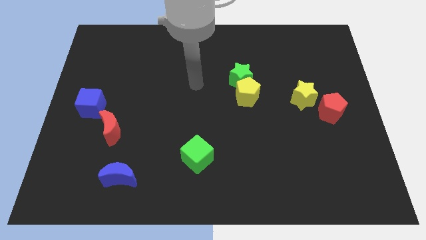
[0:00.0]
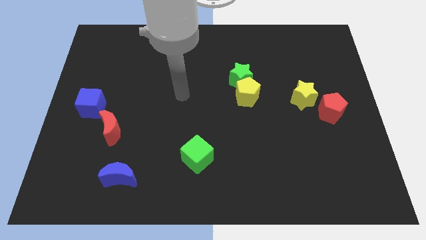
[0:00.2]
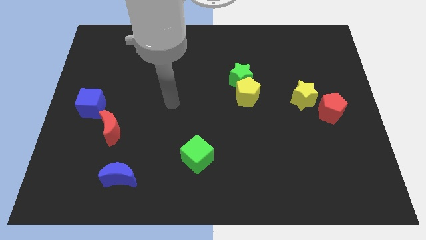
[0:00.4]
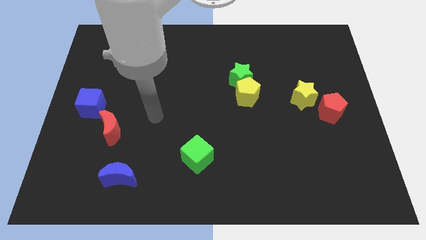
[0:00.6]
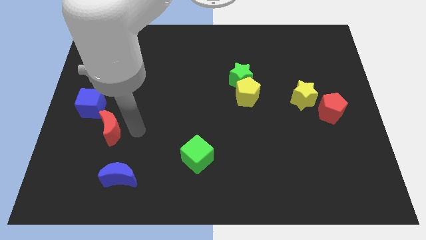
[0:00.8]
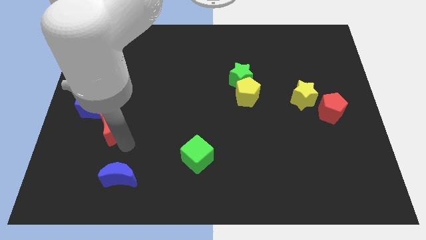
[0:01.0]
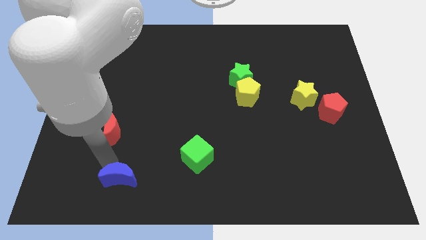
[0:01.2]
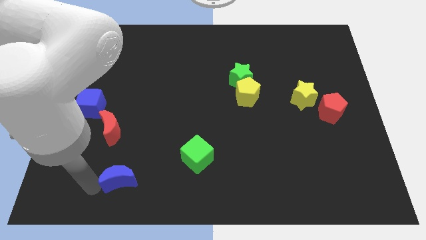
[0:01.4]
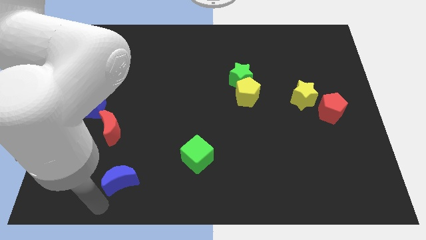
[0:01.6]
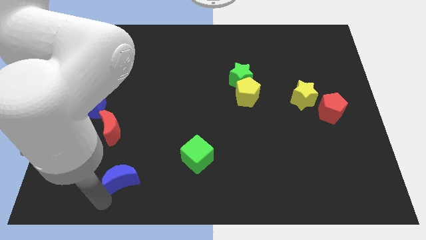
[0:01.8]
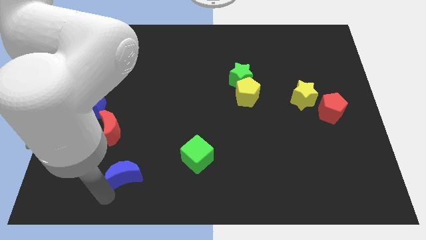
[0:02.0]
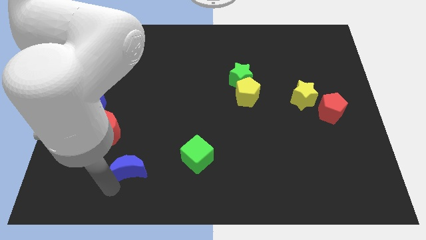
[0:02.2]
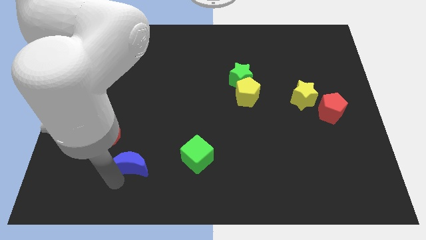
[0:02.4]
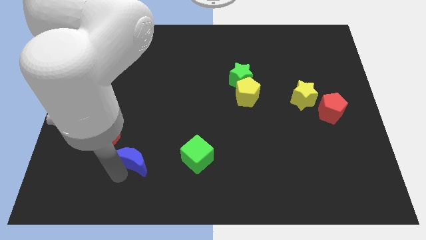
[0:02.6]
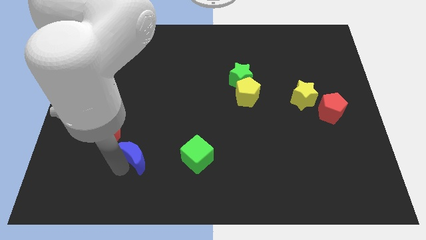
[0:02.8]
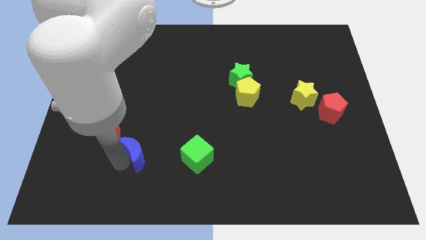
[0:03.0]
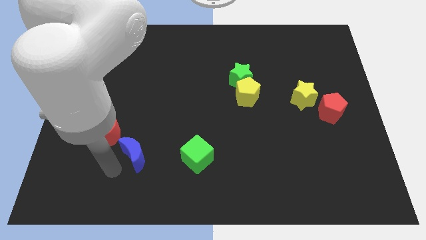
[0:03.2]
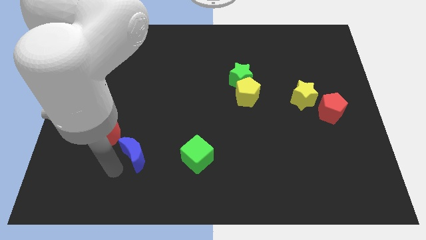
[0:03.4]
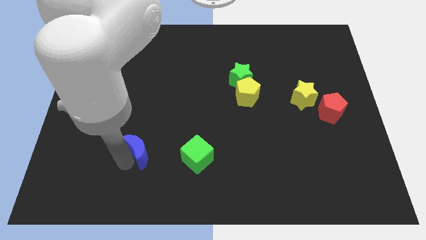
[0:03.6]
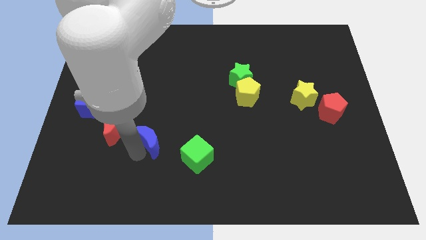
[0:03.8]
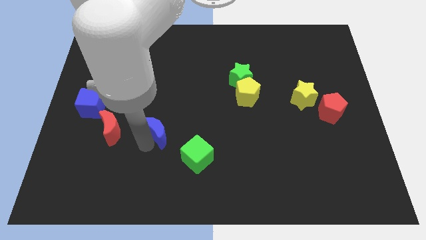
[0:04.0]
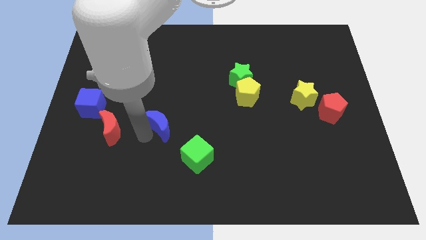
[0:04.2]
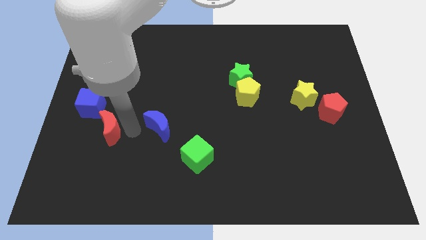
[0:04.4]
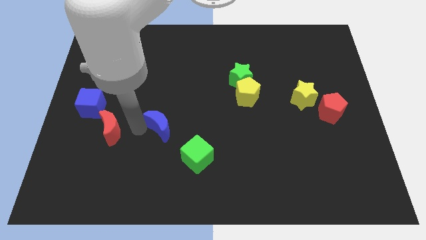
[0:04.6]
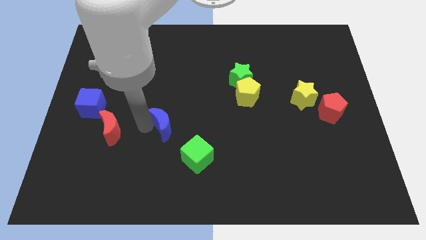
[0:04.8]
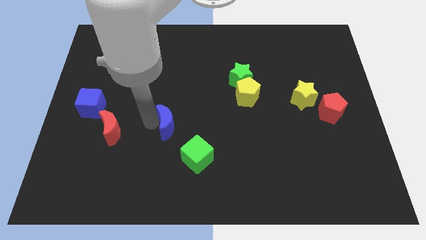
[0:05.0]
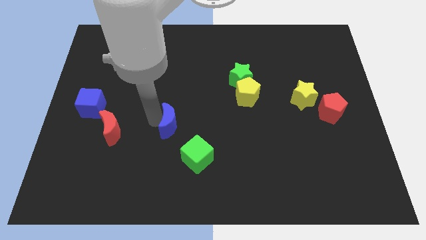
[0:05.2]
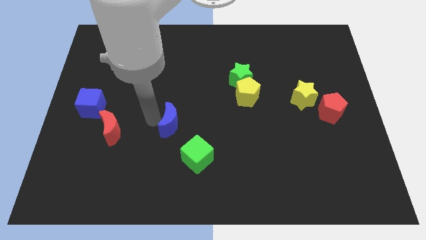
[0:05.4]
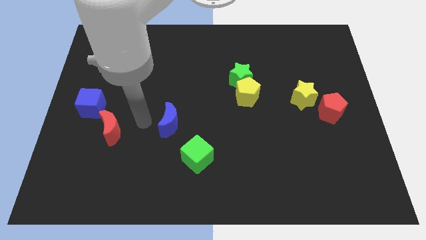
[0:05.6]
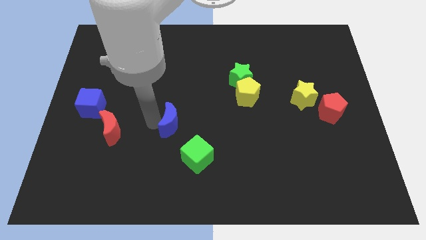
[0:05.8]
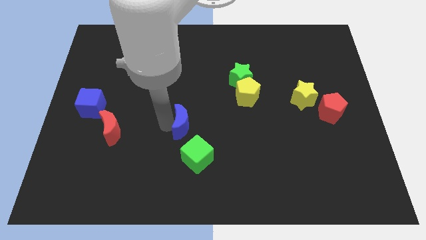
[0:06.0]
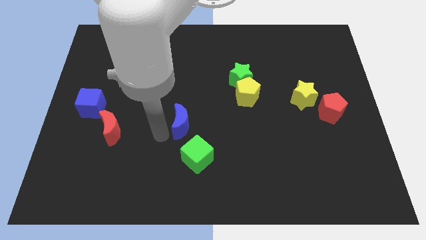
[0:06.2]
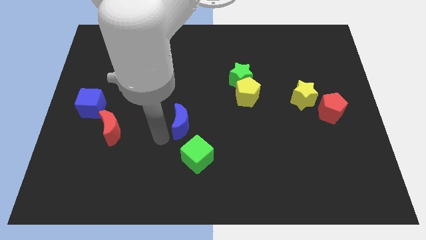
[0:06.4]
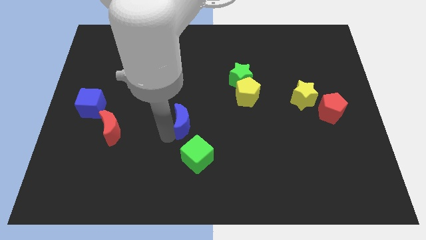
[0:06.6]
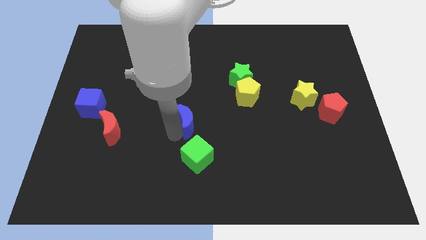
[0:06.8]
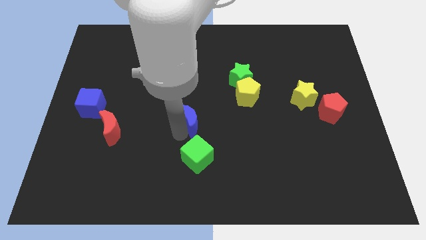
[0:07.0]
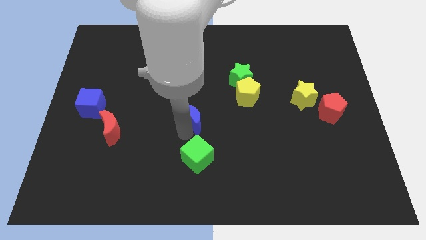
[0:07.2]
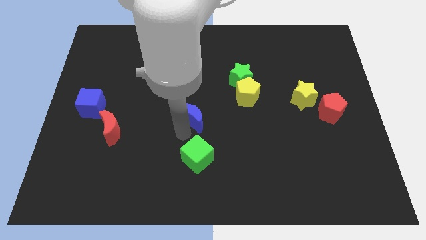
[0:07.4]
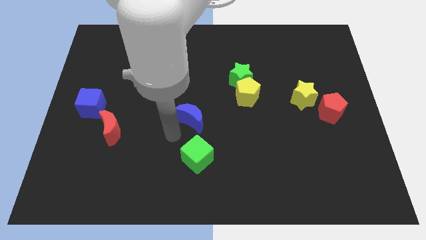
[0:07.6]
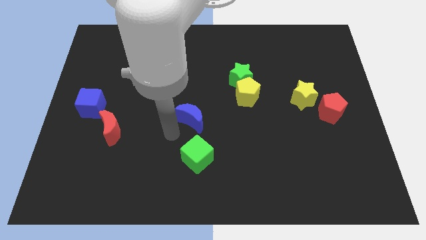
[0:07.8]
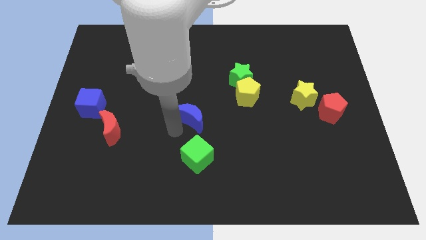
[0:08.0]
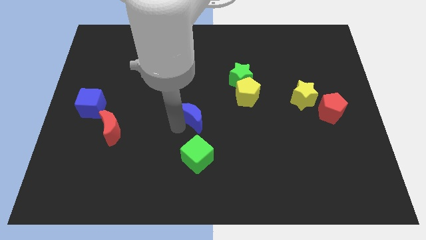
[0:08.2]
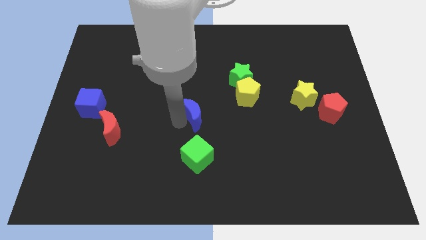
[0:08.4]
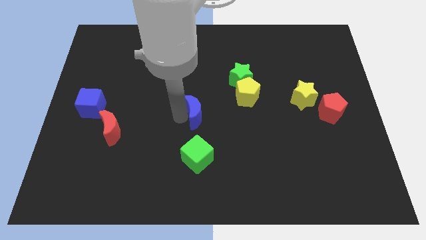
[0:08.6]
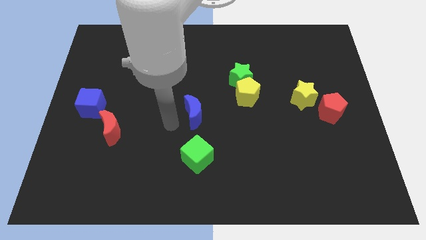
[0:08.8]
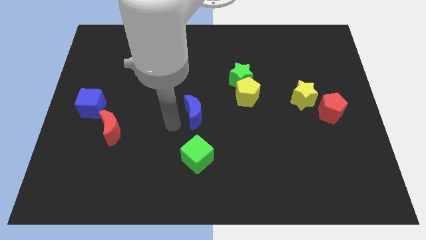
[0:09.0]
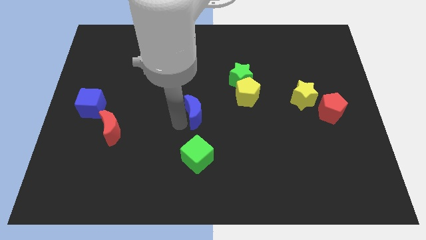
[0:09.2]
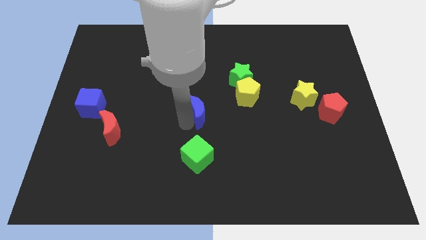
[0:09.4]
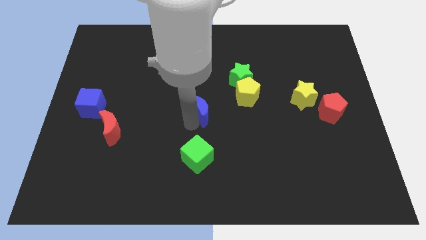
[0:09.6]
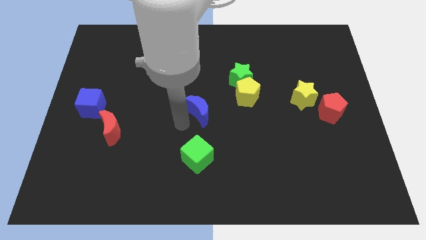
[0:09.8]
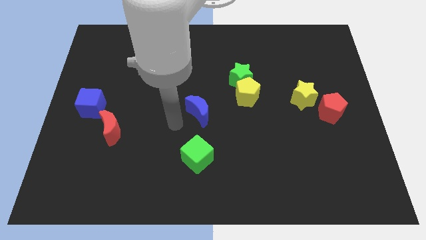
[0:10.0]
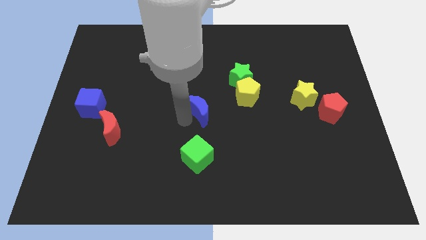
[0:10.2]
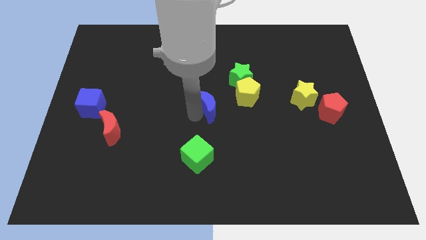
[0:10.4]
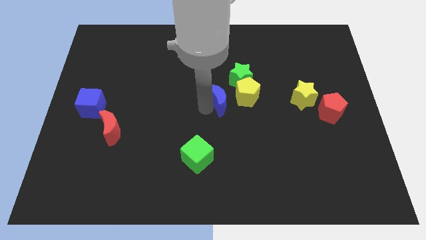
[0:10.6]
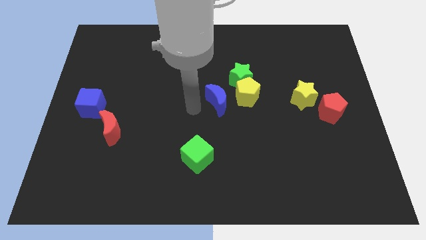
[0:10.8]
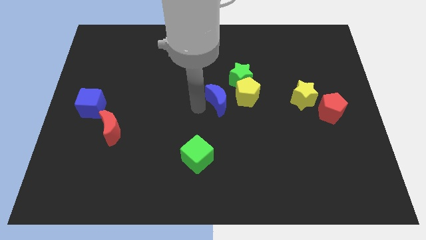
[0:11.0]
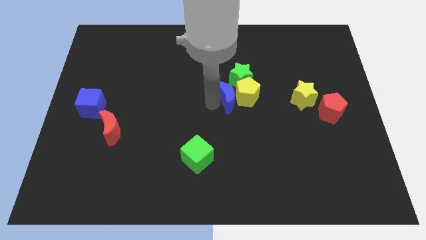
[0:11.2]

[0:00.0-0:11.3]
slide the blue moon to the yellow pentagon

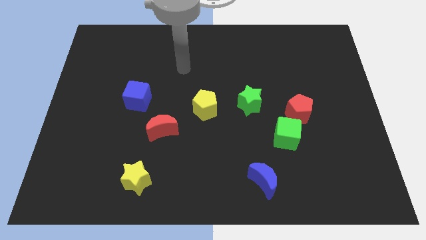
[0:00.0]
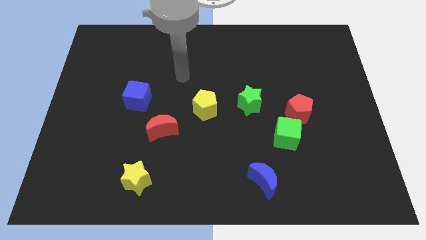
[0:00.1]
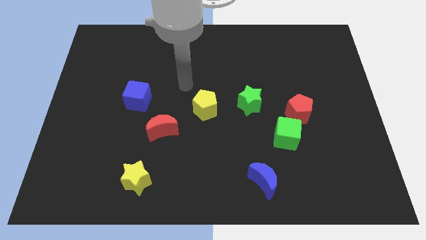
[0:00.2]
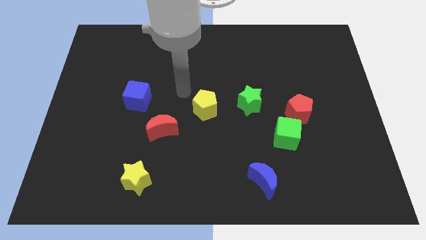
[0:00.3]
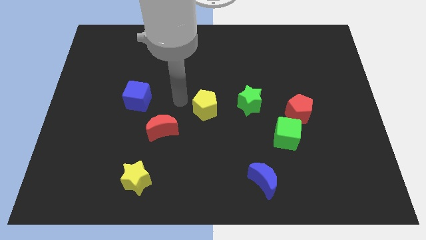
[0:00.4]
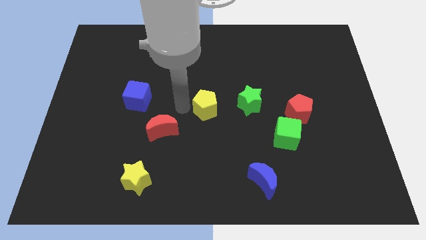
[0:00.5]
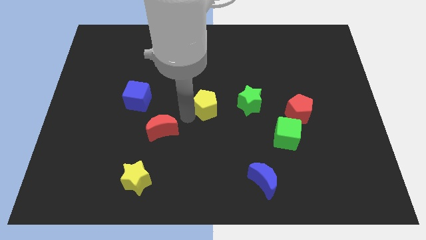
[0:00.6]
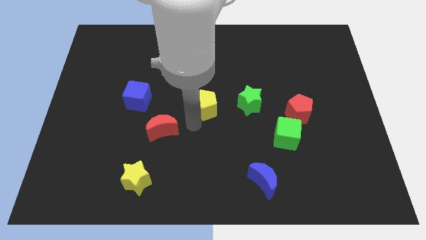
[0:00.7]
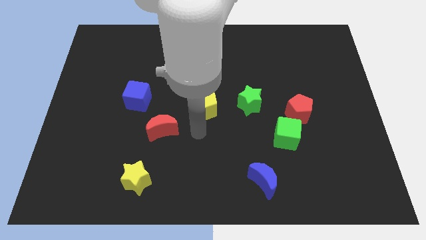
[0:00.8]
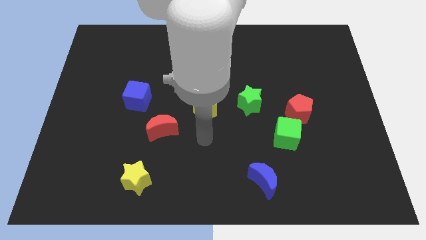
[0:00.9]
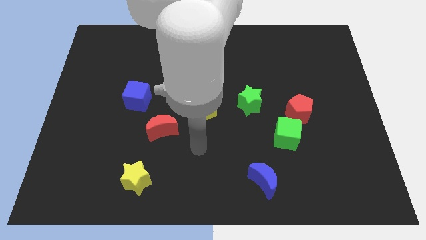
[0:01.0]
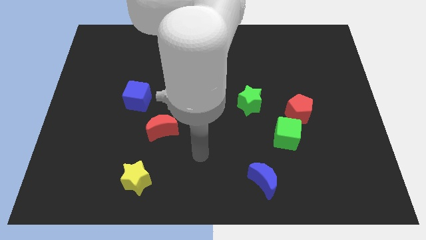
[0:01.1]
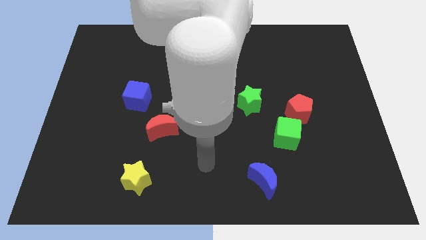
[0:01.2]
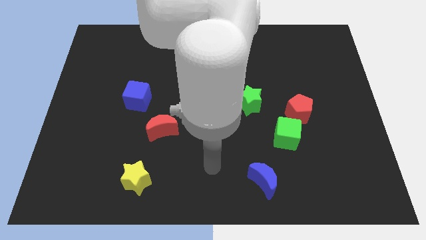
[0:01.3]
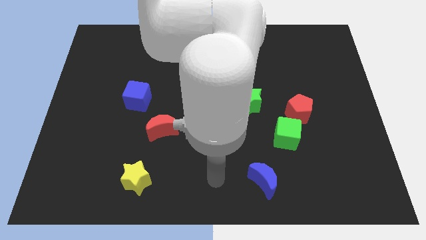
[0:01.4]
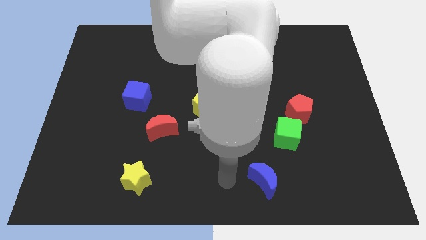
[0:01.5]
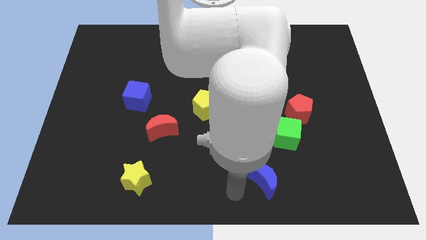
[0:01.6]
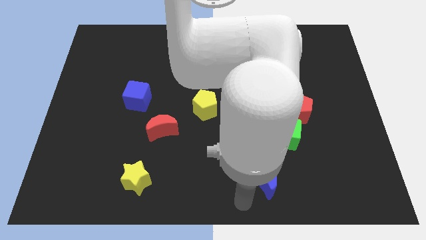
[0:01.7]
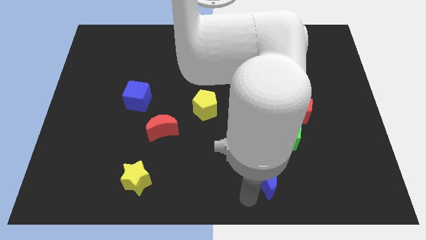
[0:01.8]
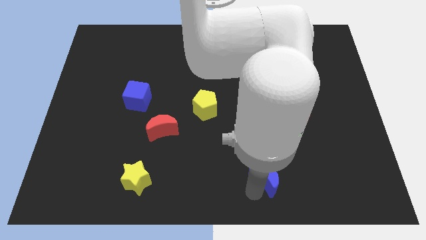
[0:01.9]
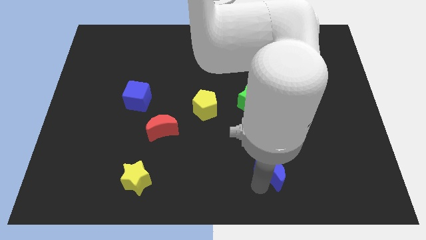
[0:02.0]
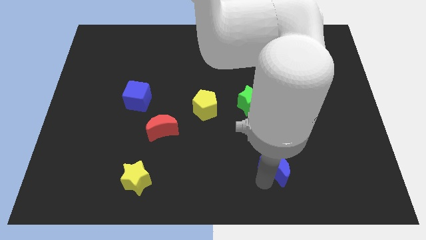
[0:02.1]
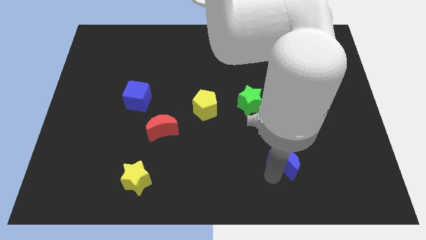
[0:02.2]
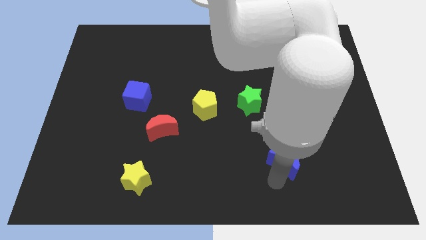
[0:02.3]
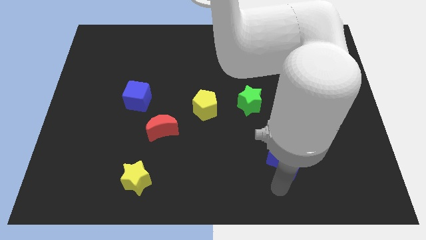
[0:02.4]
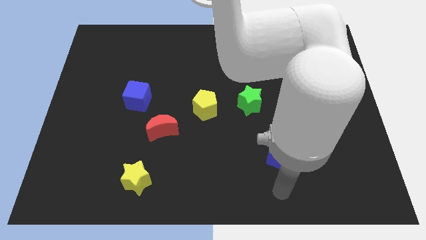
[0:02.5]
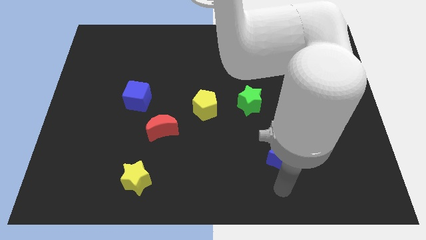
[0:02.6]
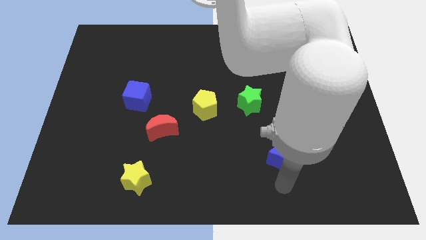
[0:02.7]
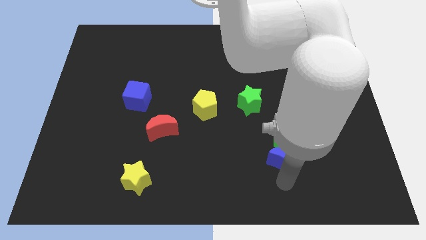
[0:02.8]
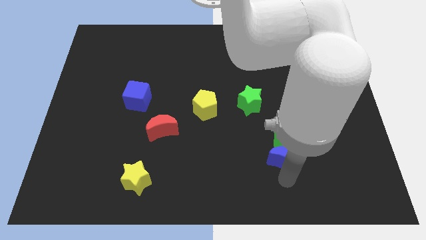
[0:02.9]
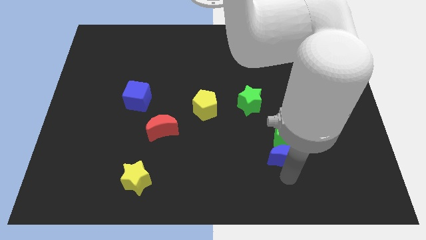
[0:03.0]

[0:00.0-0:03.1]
put the blue moon close to the green cube
